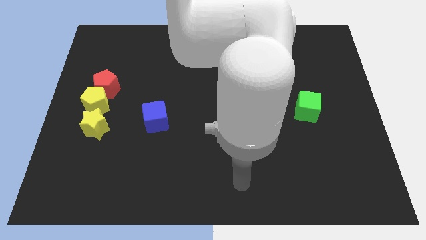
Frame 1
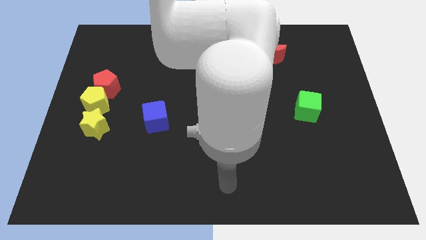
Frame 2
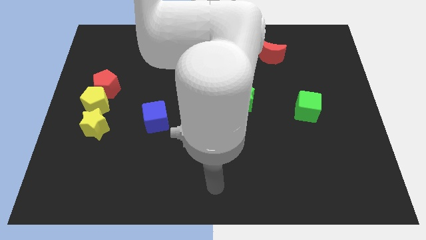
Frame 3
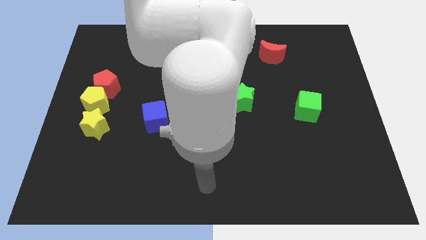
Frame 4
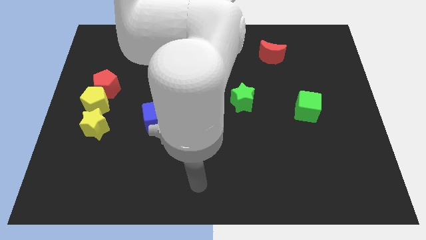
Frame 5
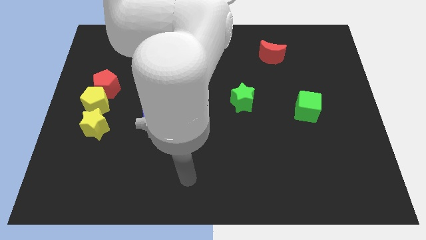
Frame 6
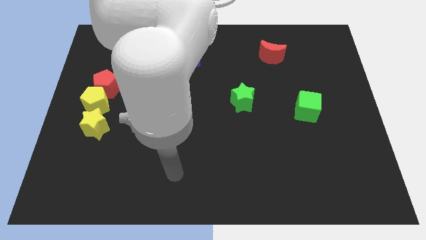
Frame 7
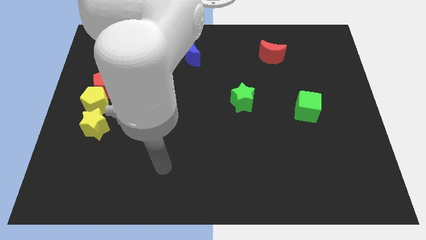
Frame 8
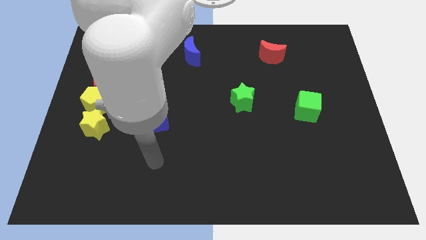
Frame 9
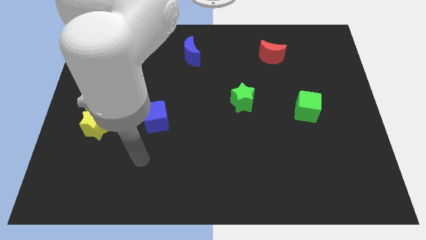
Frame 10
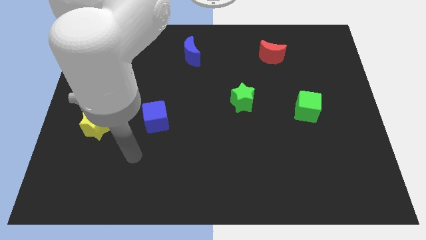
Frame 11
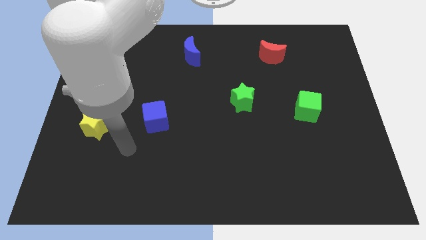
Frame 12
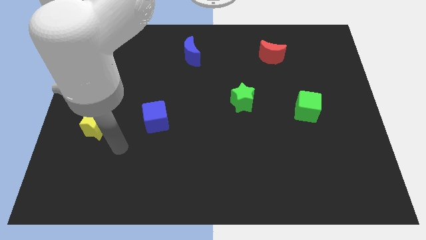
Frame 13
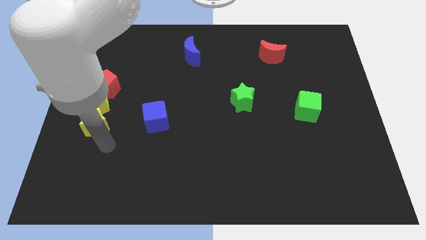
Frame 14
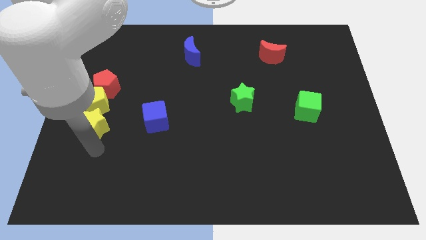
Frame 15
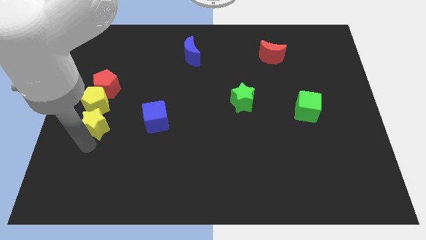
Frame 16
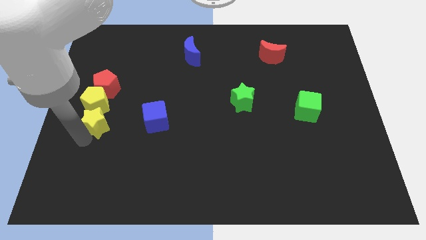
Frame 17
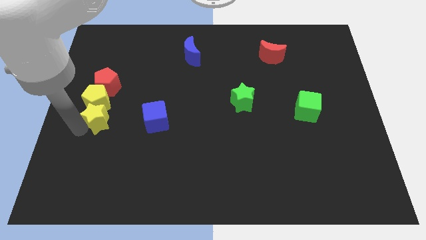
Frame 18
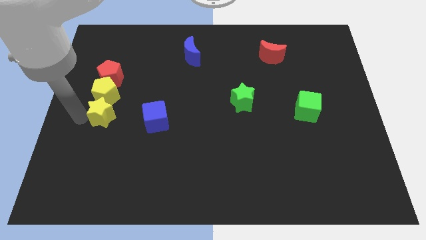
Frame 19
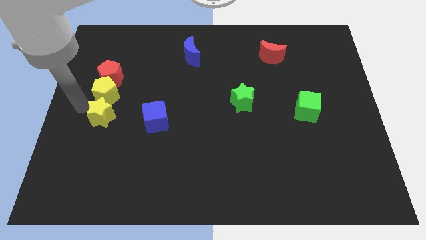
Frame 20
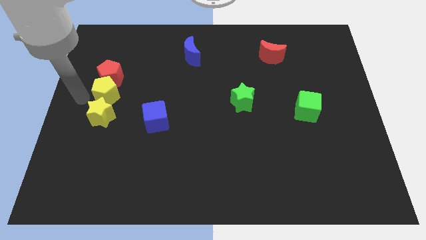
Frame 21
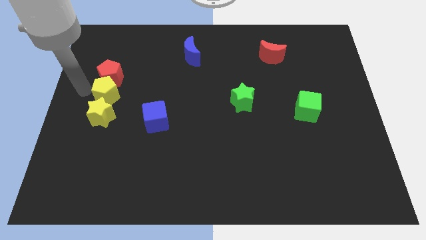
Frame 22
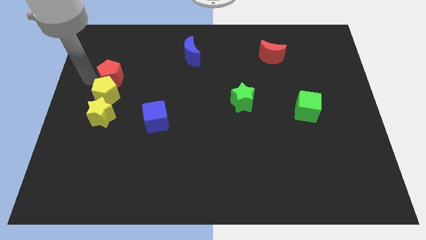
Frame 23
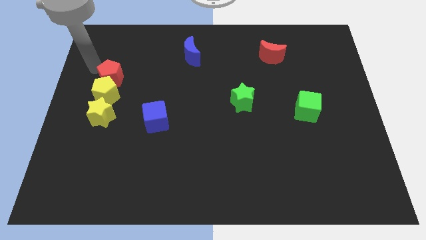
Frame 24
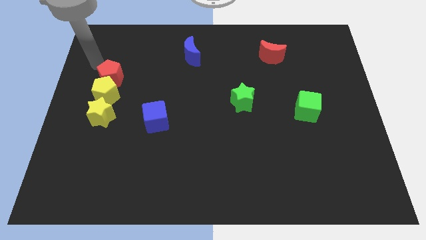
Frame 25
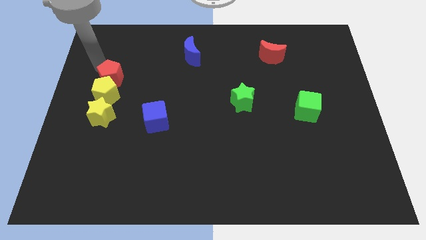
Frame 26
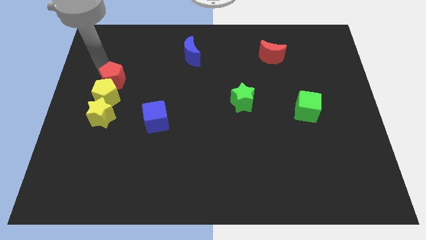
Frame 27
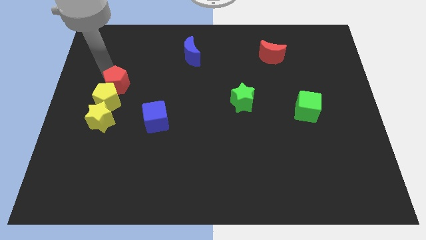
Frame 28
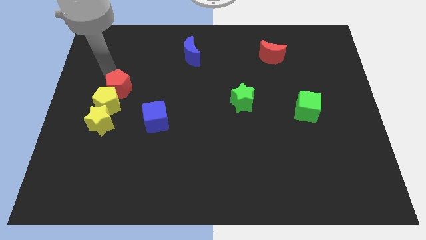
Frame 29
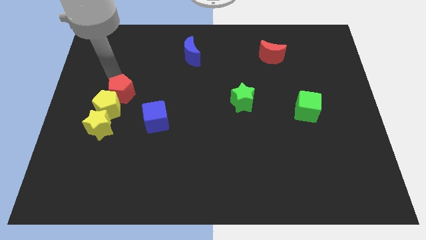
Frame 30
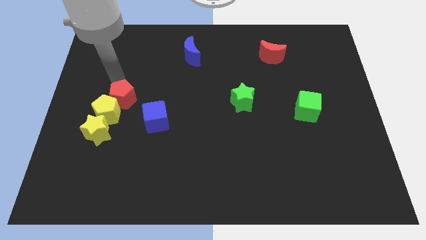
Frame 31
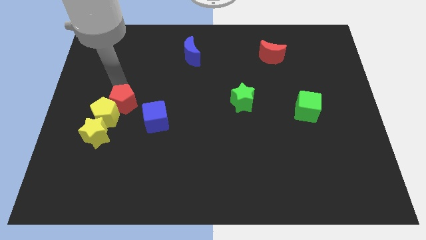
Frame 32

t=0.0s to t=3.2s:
slide the red pentagon a bit down and right

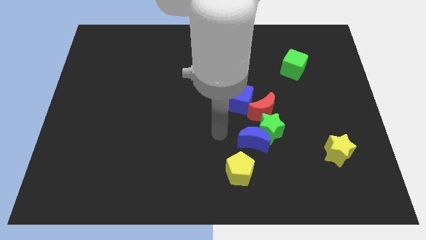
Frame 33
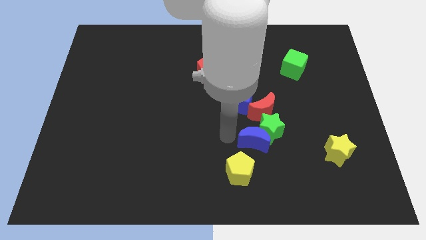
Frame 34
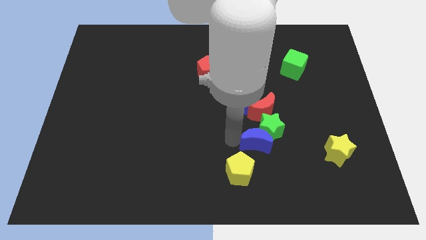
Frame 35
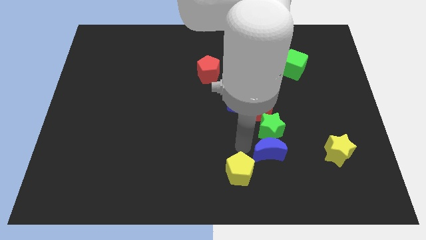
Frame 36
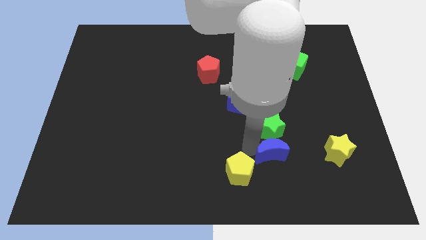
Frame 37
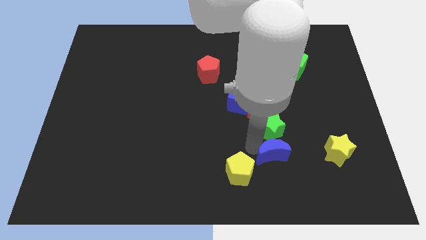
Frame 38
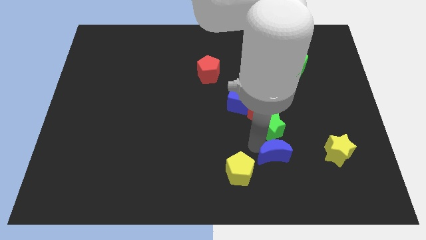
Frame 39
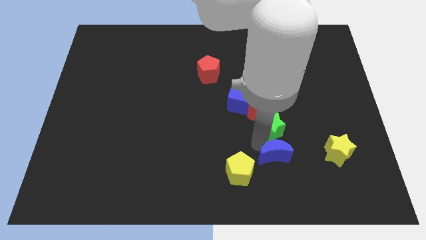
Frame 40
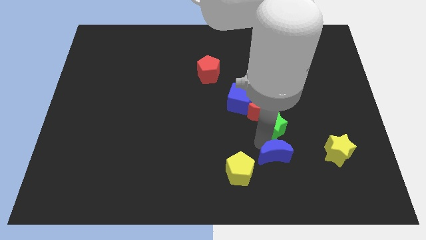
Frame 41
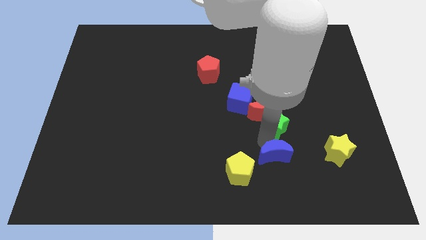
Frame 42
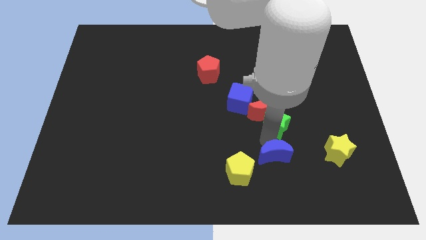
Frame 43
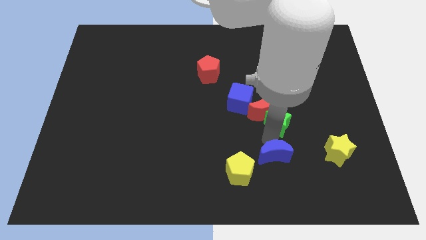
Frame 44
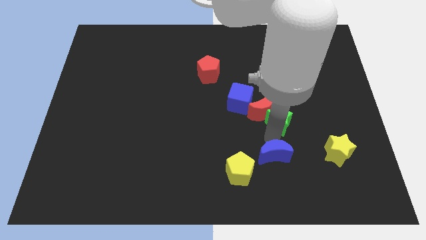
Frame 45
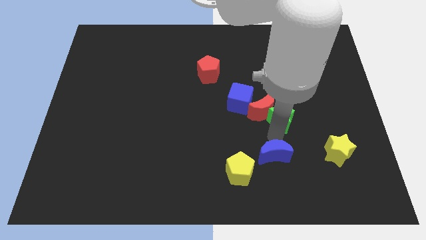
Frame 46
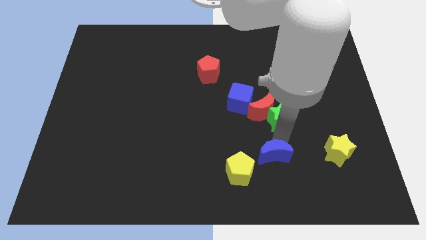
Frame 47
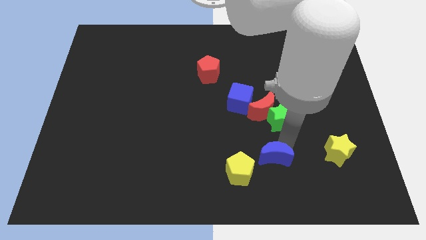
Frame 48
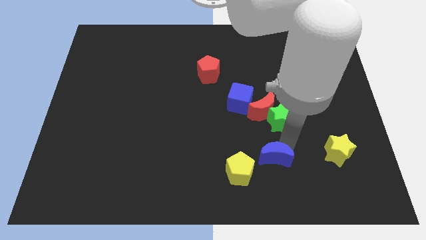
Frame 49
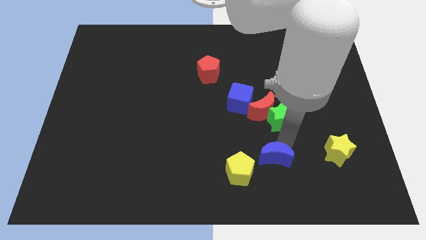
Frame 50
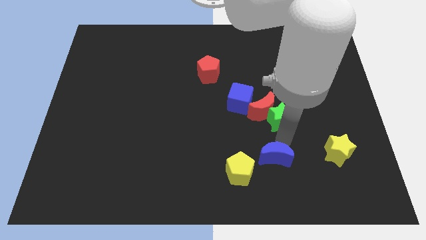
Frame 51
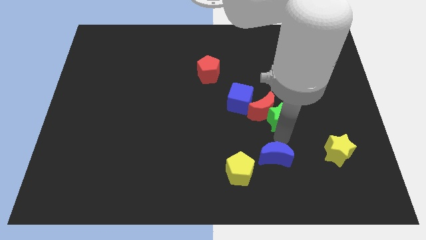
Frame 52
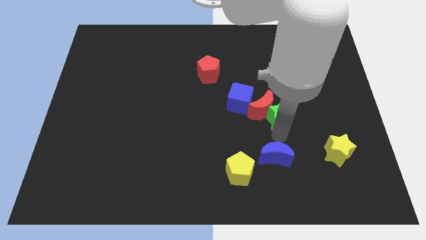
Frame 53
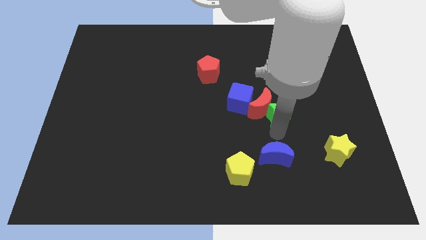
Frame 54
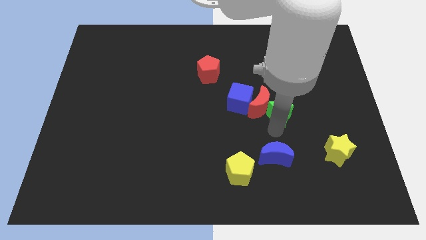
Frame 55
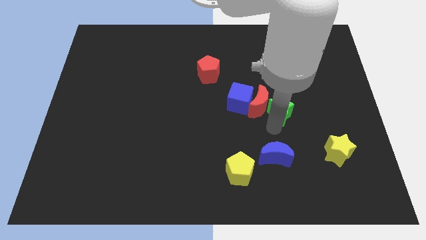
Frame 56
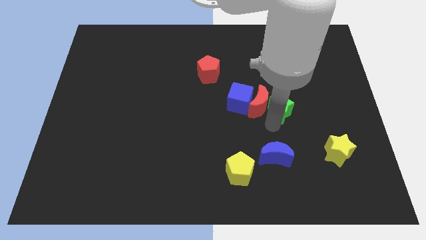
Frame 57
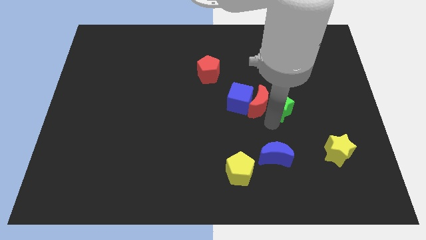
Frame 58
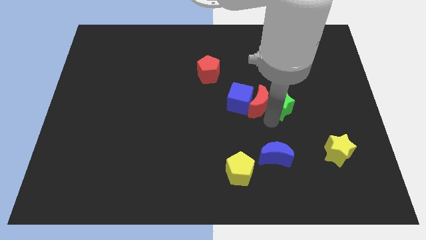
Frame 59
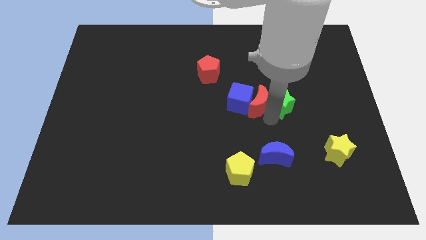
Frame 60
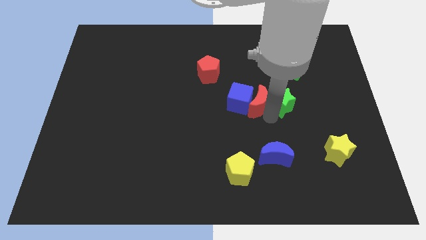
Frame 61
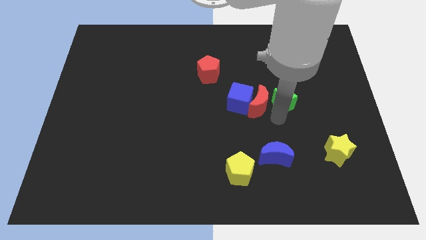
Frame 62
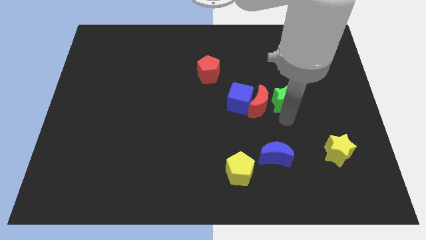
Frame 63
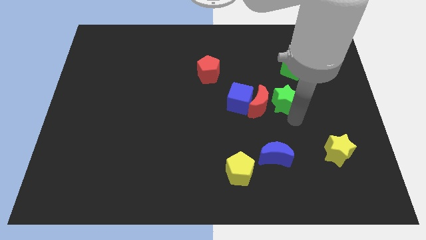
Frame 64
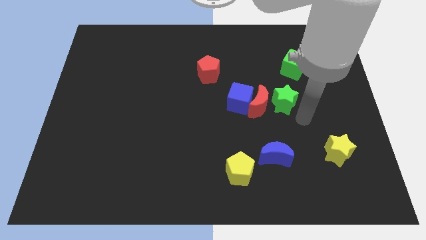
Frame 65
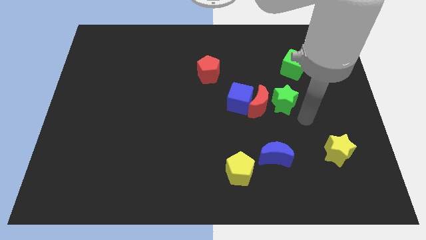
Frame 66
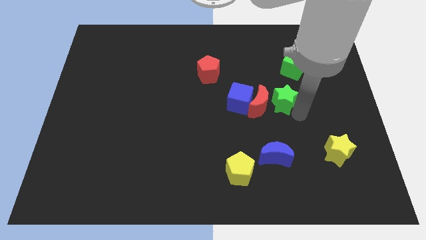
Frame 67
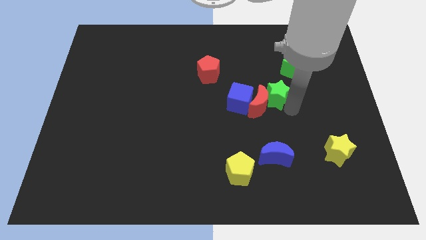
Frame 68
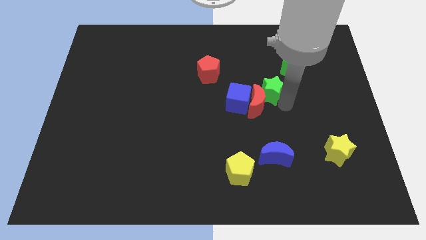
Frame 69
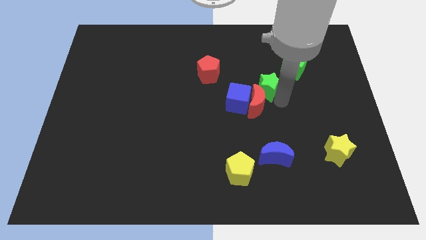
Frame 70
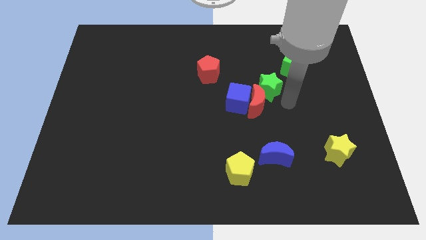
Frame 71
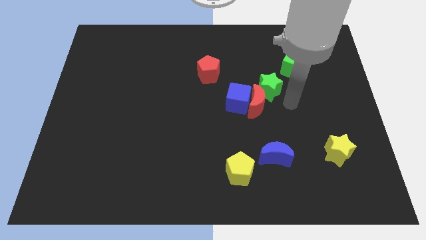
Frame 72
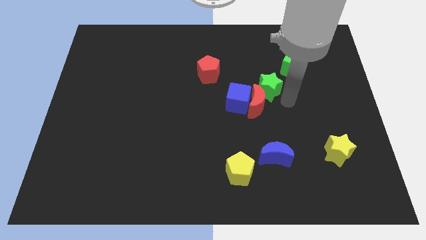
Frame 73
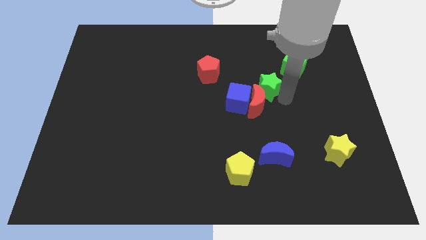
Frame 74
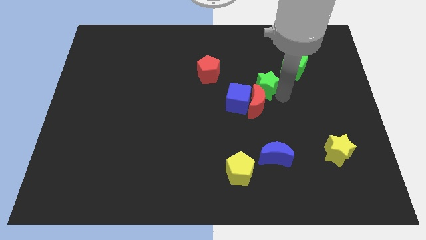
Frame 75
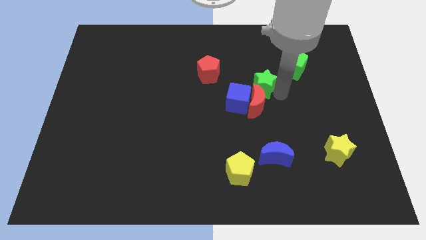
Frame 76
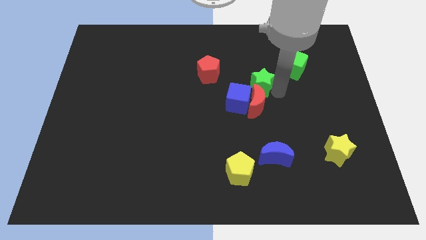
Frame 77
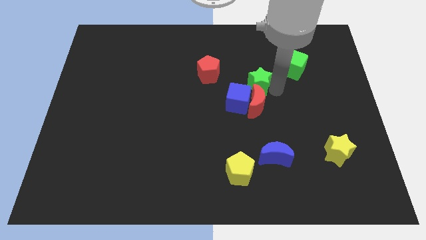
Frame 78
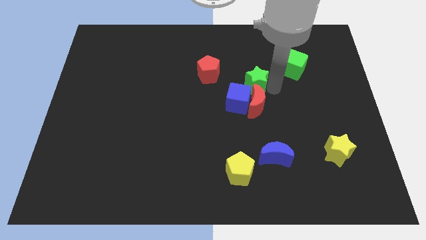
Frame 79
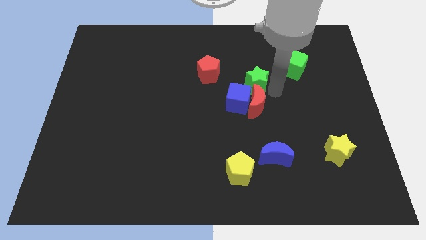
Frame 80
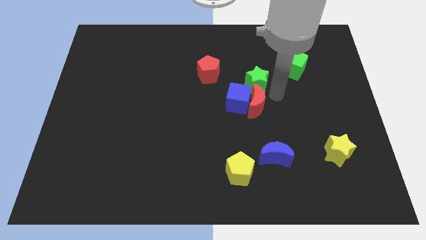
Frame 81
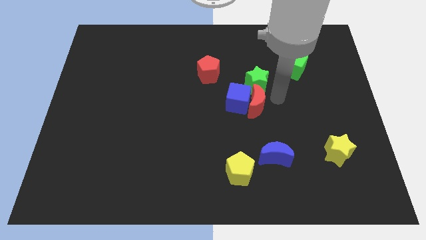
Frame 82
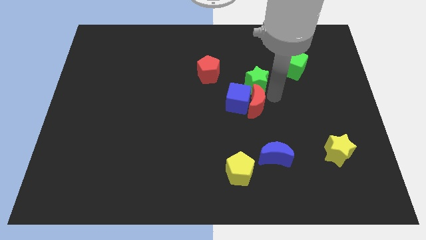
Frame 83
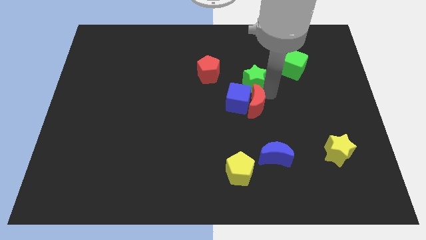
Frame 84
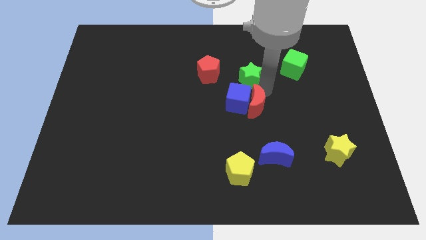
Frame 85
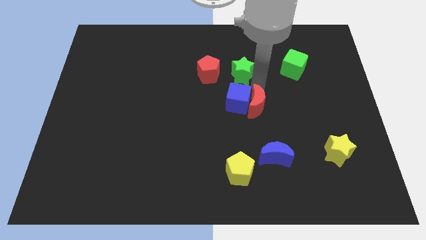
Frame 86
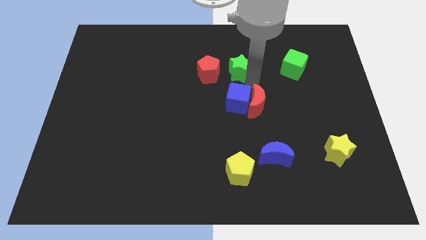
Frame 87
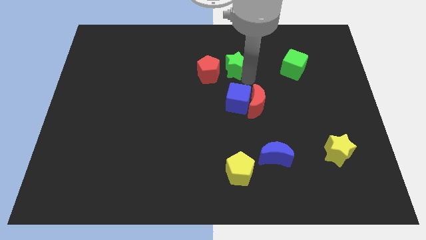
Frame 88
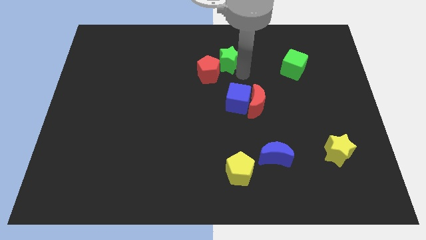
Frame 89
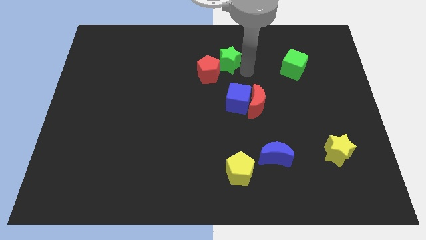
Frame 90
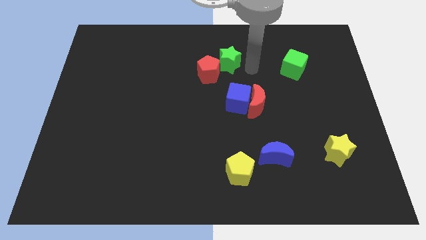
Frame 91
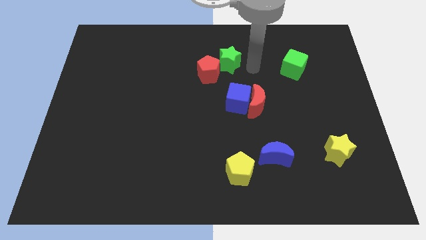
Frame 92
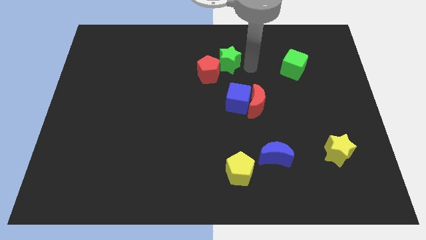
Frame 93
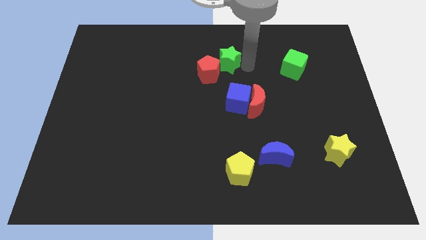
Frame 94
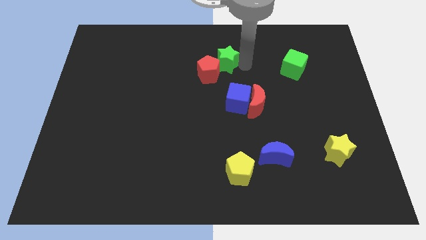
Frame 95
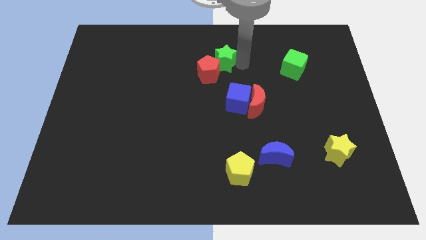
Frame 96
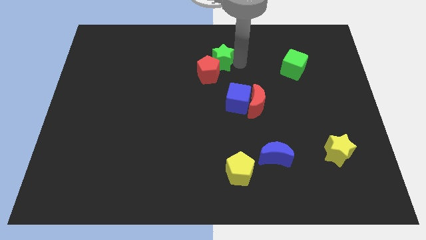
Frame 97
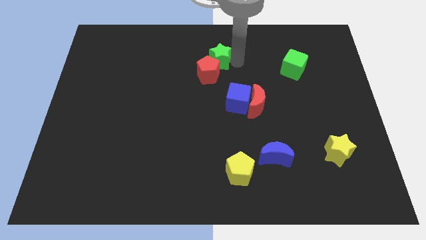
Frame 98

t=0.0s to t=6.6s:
push the green star up and to the left diagonally
